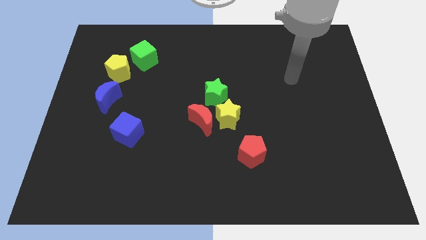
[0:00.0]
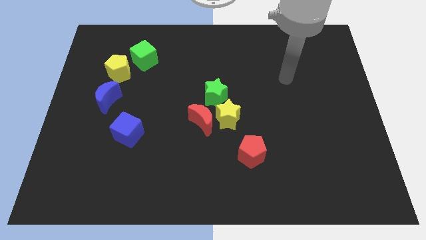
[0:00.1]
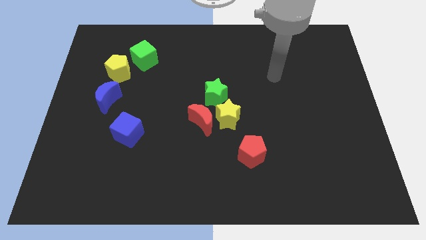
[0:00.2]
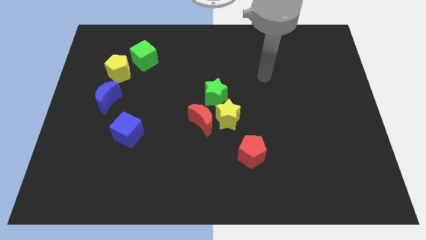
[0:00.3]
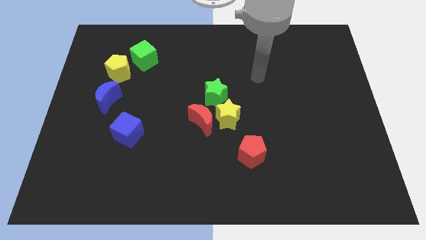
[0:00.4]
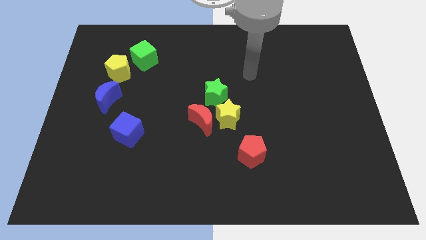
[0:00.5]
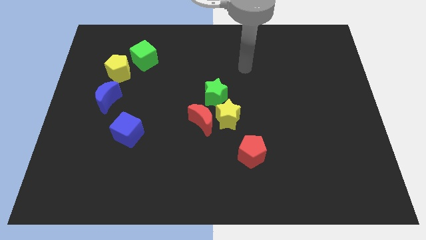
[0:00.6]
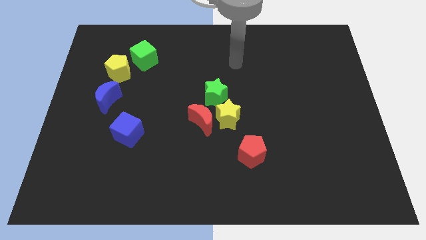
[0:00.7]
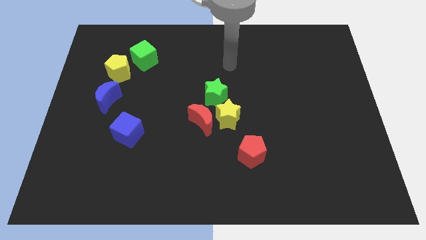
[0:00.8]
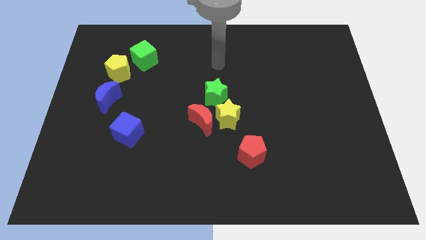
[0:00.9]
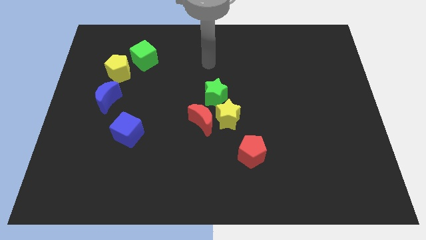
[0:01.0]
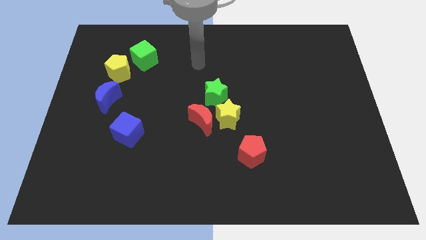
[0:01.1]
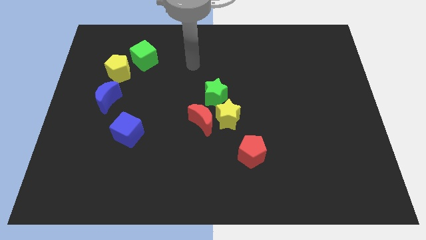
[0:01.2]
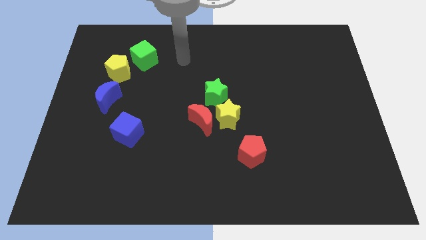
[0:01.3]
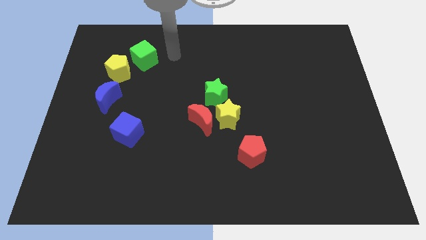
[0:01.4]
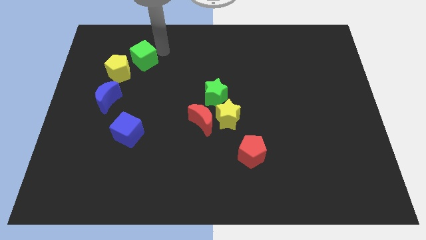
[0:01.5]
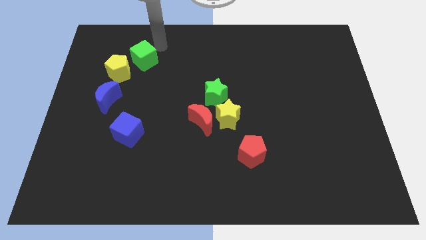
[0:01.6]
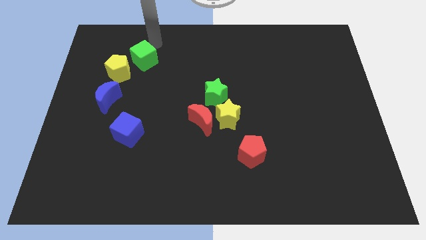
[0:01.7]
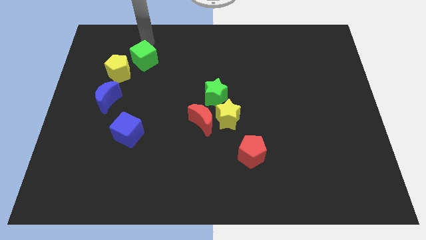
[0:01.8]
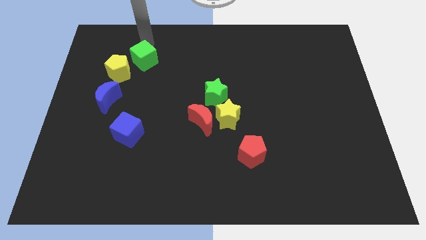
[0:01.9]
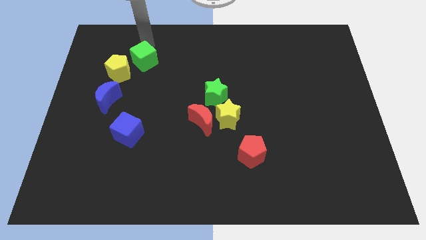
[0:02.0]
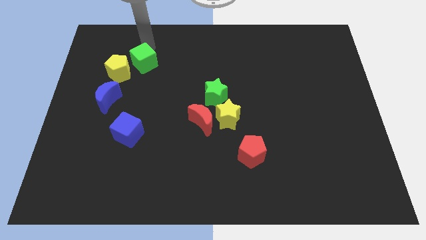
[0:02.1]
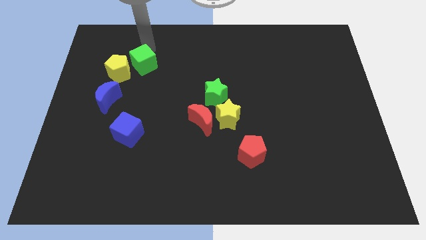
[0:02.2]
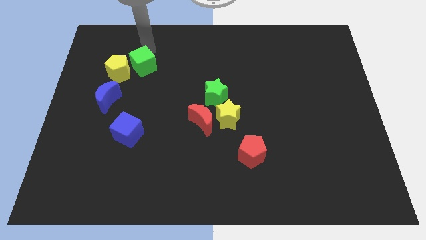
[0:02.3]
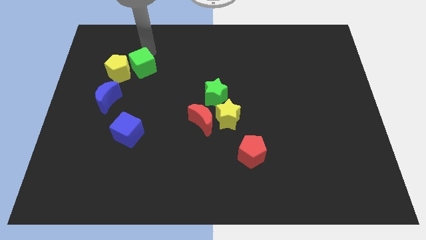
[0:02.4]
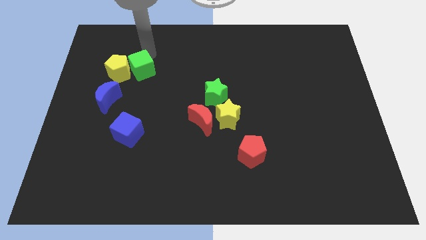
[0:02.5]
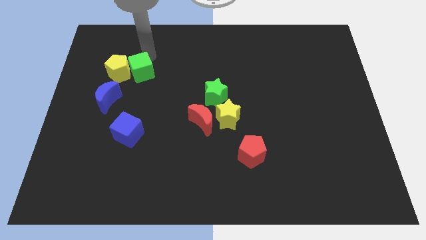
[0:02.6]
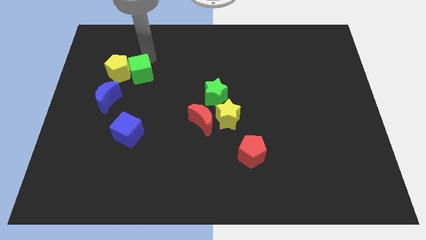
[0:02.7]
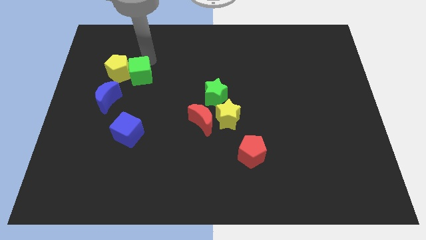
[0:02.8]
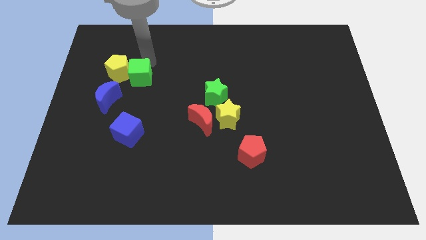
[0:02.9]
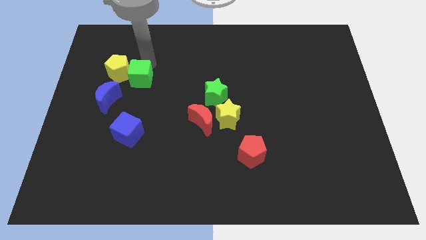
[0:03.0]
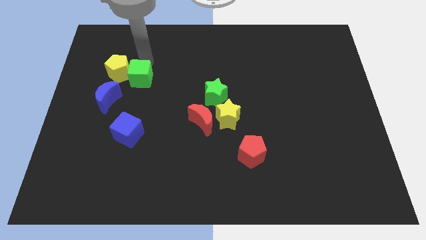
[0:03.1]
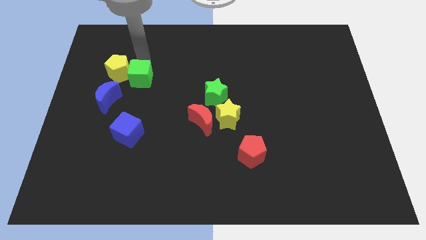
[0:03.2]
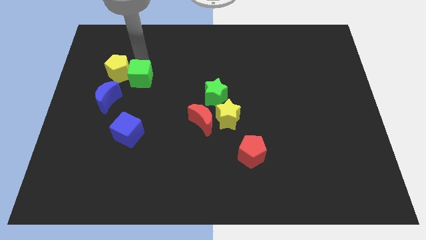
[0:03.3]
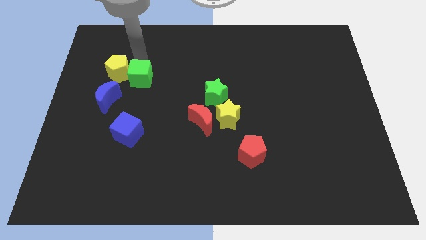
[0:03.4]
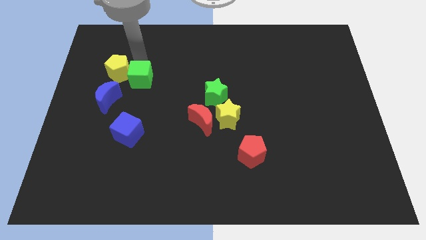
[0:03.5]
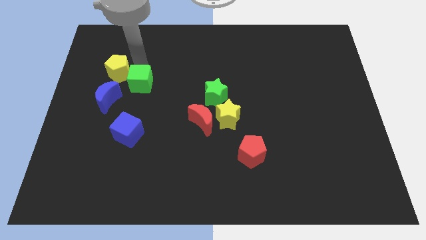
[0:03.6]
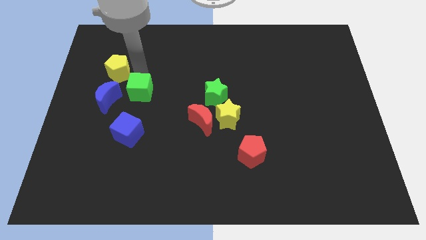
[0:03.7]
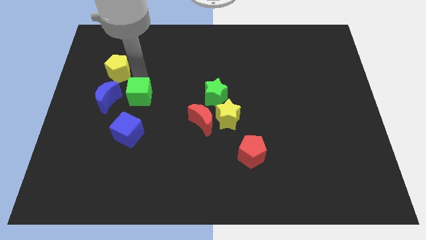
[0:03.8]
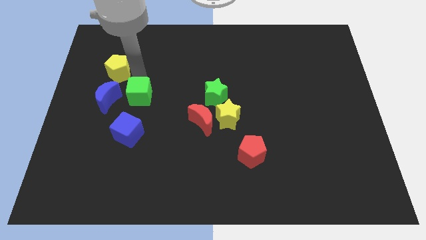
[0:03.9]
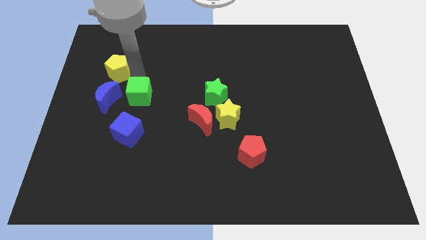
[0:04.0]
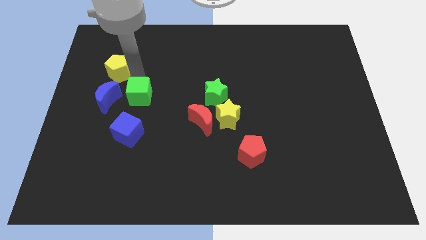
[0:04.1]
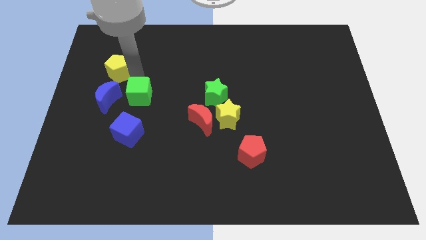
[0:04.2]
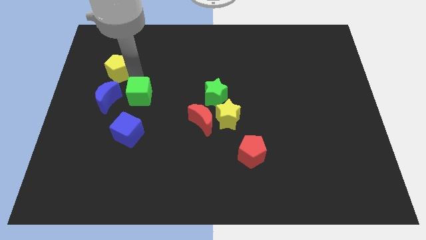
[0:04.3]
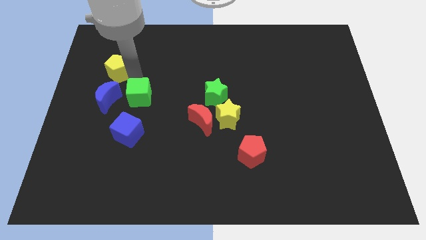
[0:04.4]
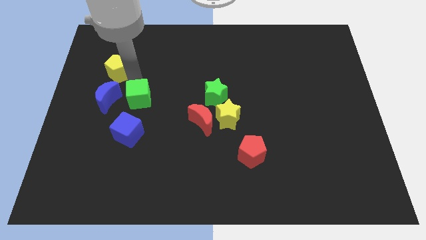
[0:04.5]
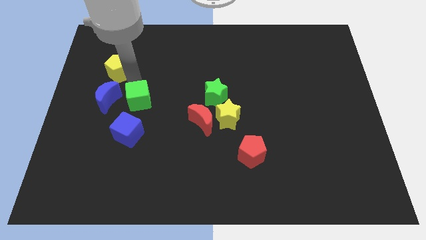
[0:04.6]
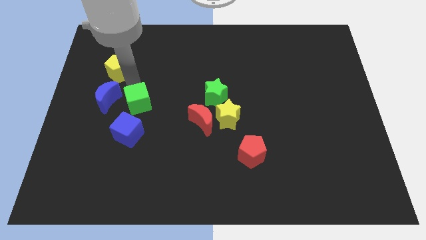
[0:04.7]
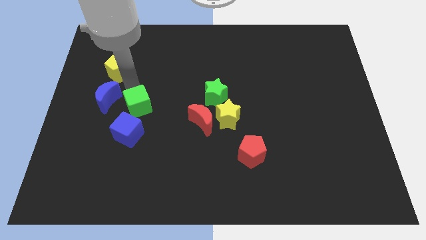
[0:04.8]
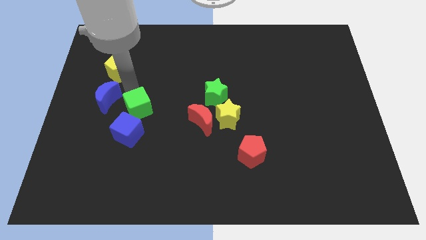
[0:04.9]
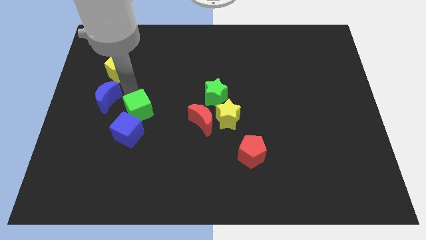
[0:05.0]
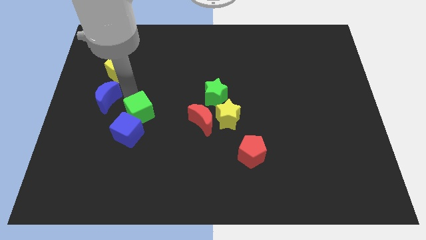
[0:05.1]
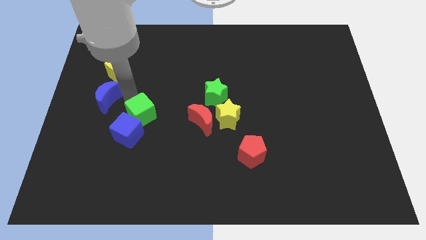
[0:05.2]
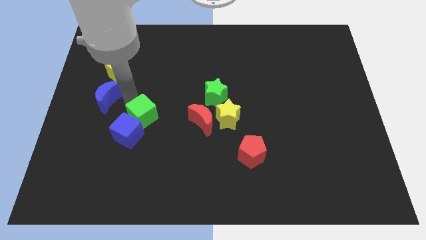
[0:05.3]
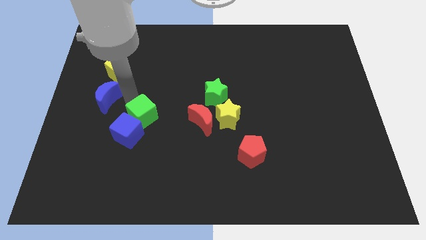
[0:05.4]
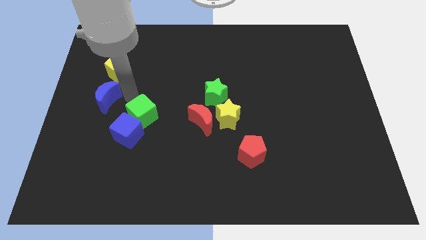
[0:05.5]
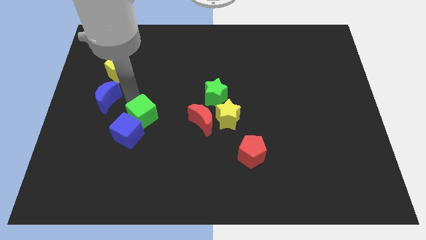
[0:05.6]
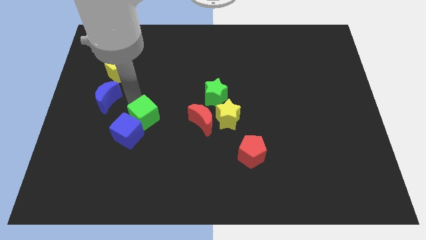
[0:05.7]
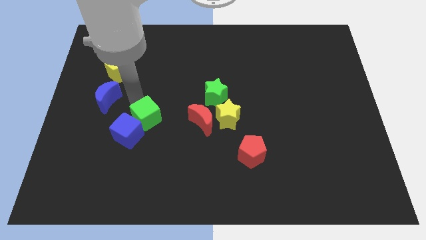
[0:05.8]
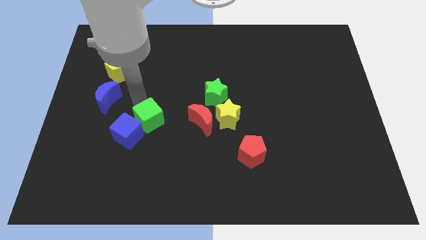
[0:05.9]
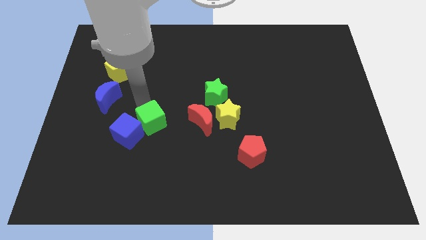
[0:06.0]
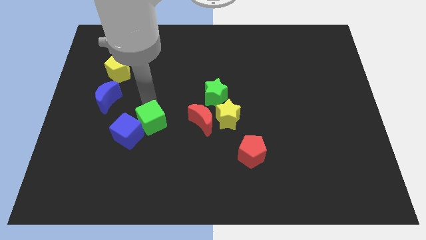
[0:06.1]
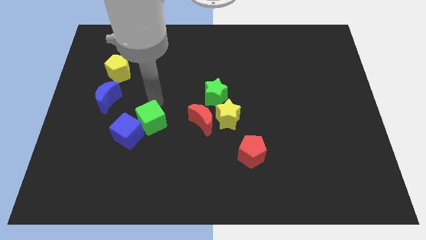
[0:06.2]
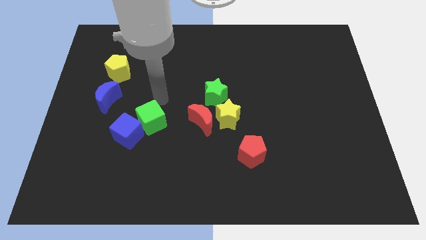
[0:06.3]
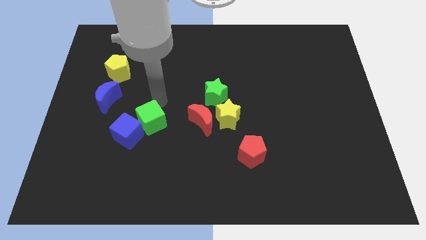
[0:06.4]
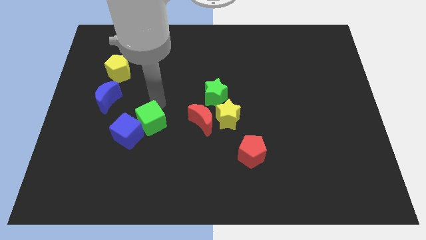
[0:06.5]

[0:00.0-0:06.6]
slide the green cube down

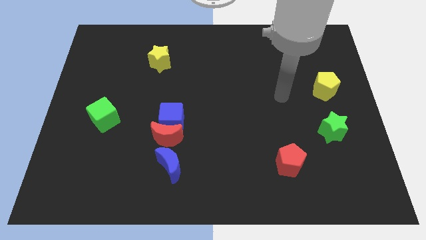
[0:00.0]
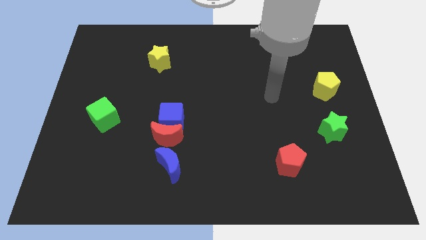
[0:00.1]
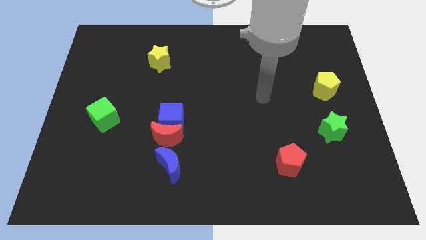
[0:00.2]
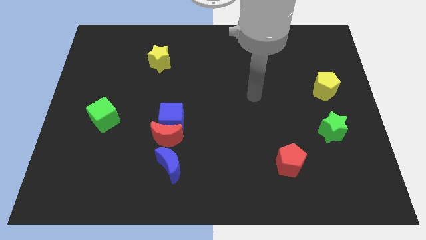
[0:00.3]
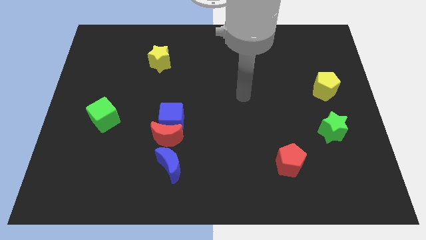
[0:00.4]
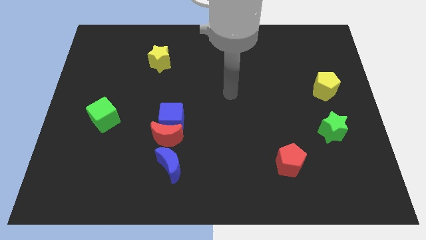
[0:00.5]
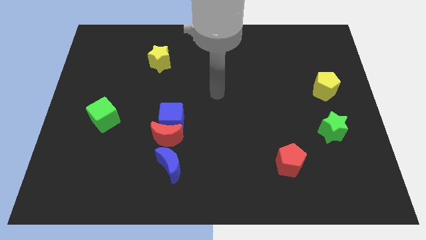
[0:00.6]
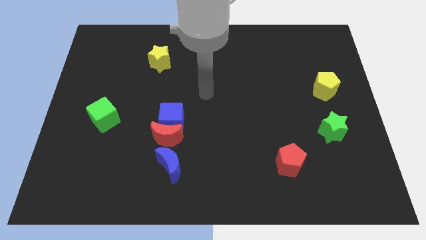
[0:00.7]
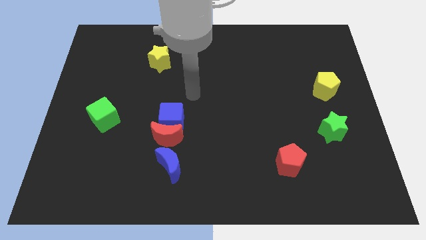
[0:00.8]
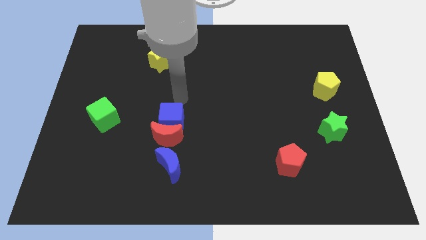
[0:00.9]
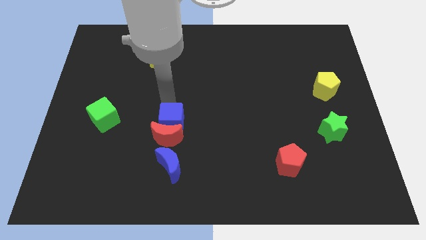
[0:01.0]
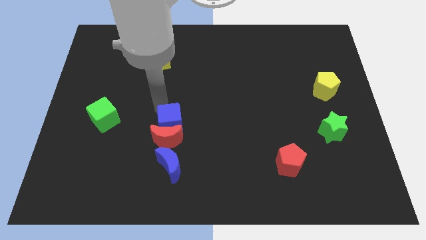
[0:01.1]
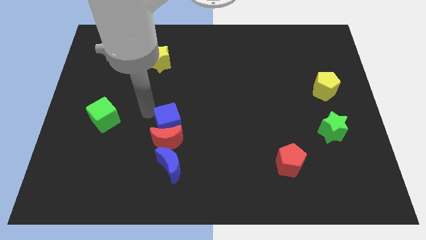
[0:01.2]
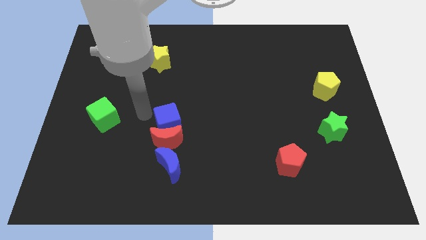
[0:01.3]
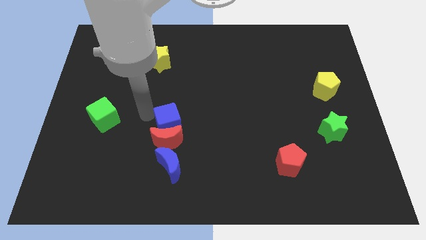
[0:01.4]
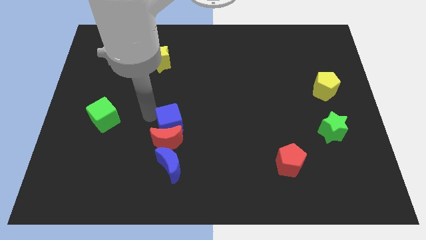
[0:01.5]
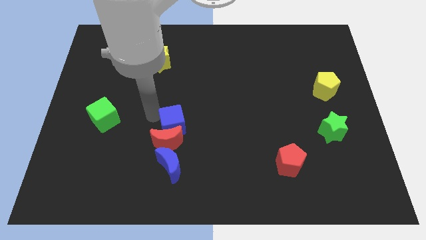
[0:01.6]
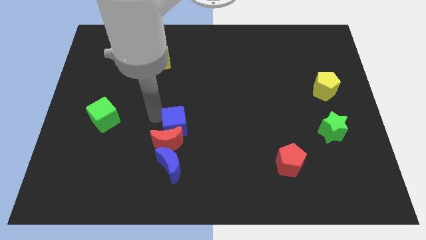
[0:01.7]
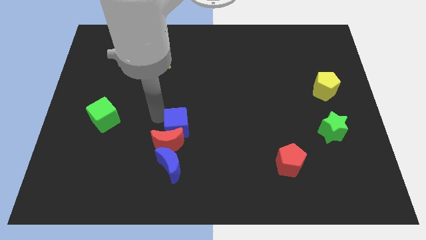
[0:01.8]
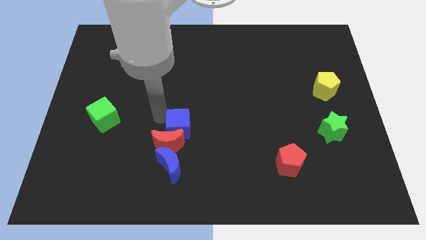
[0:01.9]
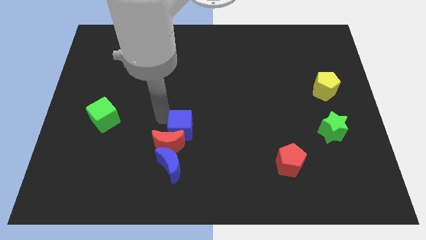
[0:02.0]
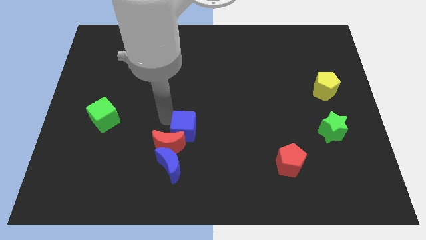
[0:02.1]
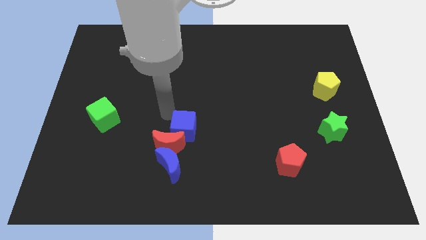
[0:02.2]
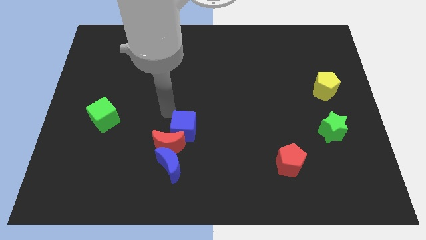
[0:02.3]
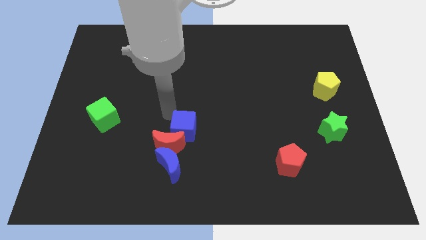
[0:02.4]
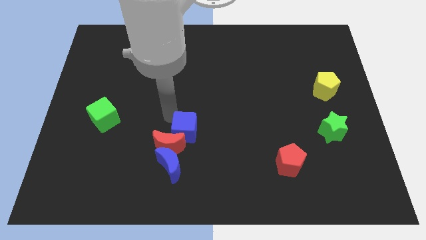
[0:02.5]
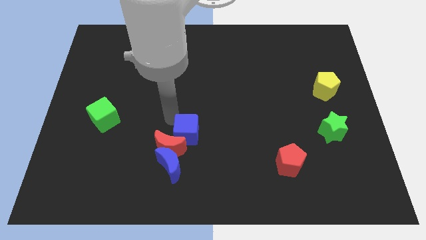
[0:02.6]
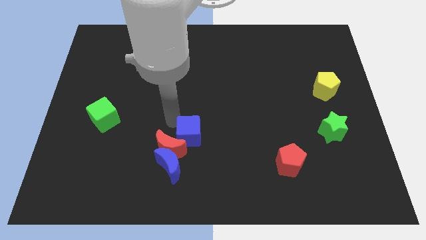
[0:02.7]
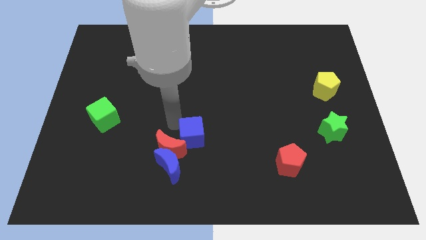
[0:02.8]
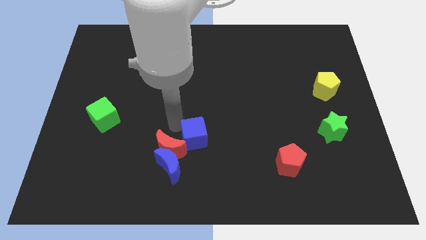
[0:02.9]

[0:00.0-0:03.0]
move the blue cube down and right diagonally a bit
